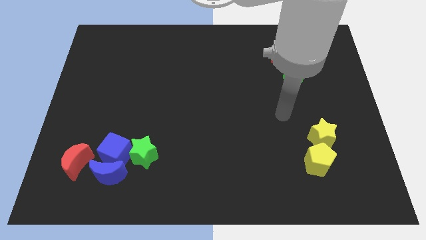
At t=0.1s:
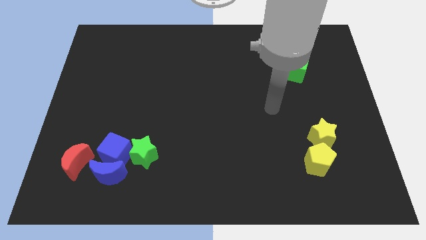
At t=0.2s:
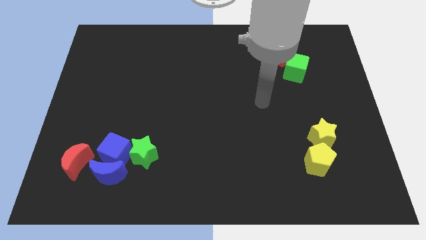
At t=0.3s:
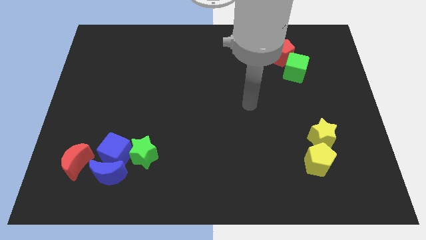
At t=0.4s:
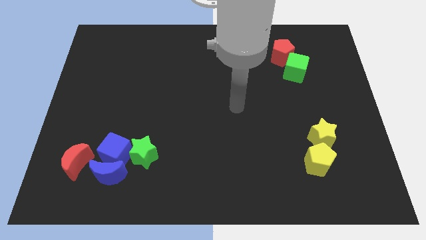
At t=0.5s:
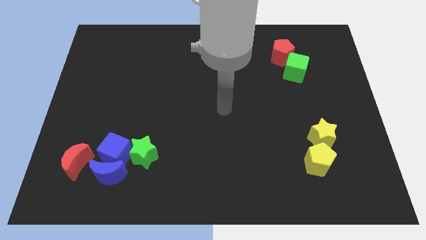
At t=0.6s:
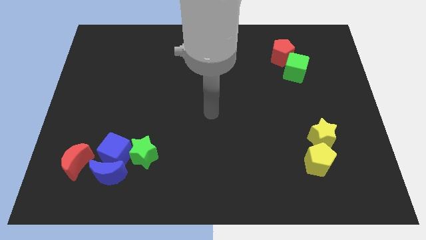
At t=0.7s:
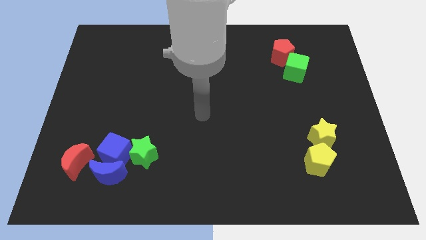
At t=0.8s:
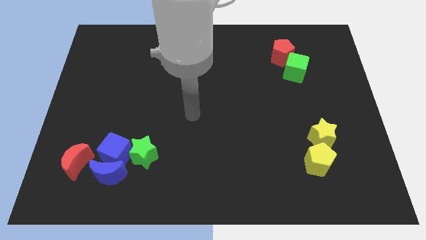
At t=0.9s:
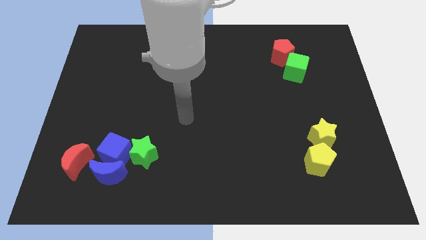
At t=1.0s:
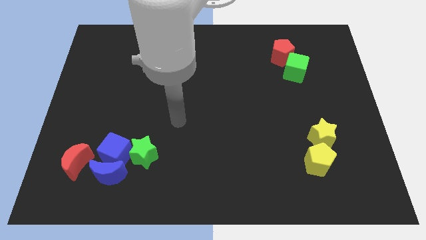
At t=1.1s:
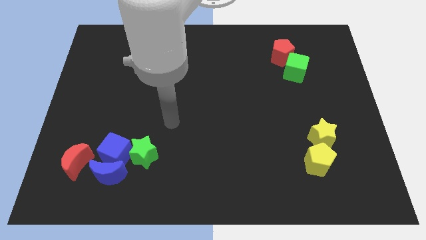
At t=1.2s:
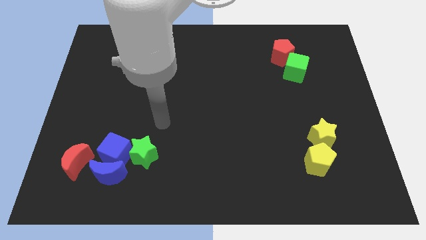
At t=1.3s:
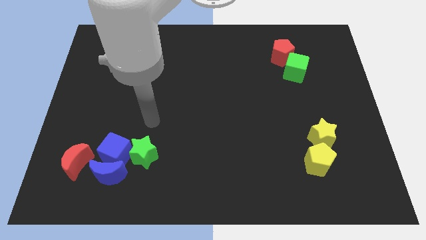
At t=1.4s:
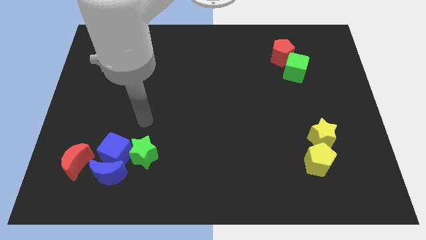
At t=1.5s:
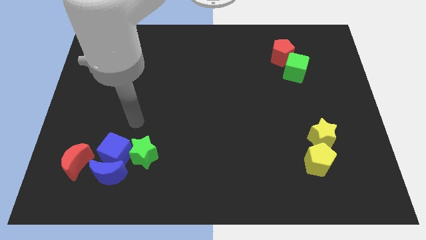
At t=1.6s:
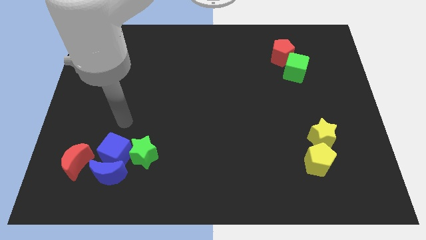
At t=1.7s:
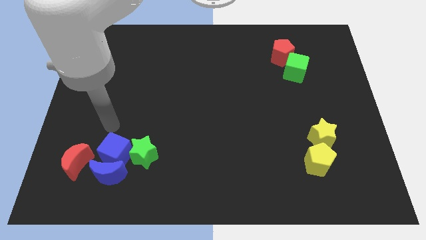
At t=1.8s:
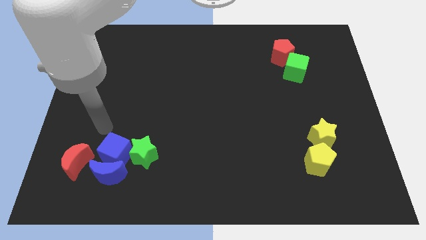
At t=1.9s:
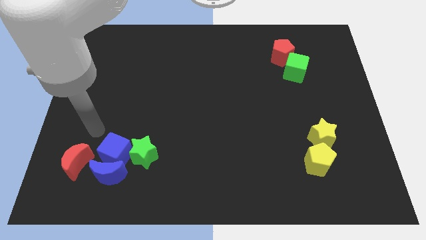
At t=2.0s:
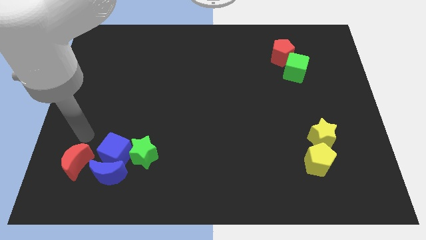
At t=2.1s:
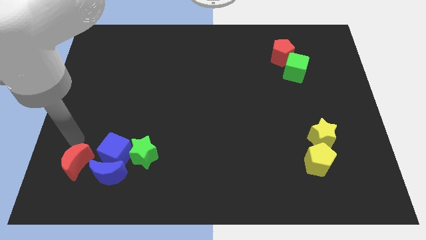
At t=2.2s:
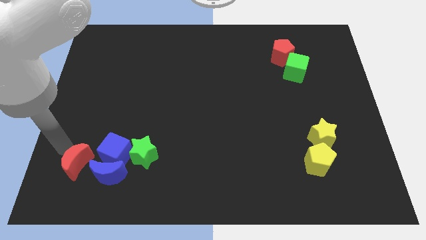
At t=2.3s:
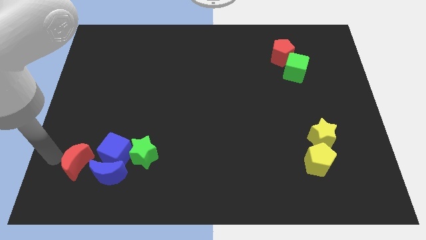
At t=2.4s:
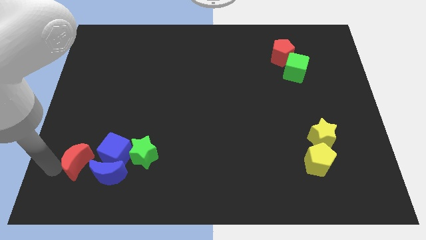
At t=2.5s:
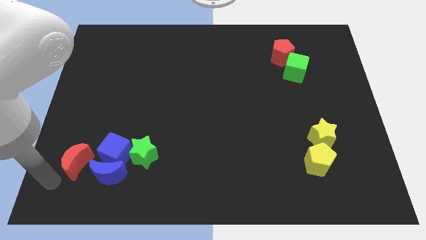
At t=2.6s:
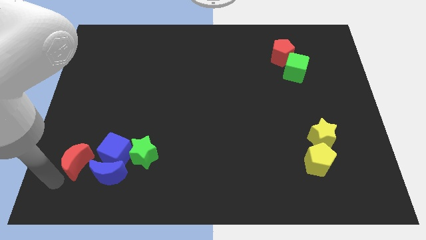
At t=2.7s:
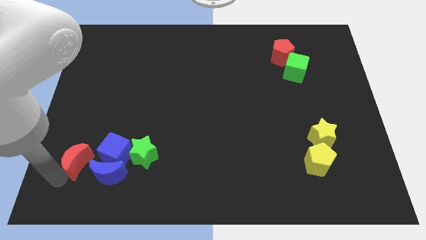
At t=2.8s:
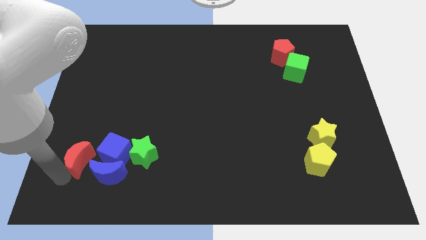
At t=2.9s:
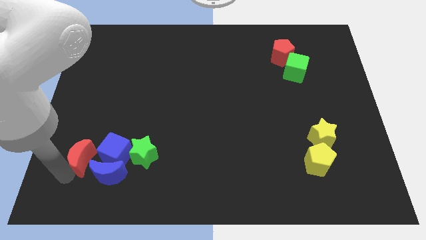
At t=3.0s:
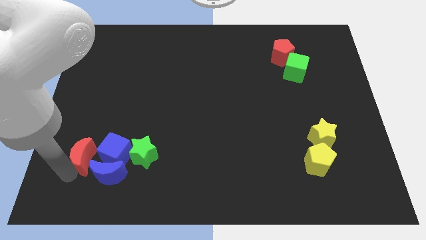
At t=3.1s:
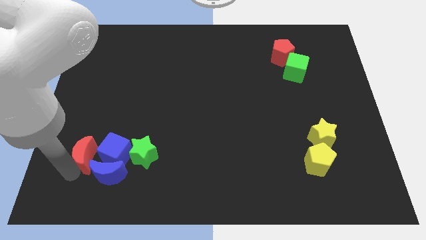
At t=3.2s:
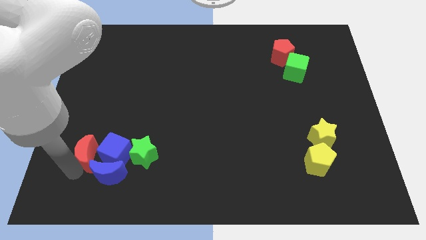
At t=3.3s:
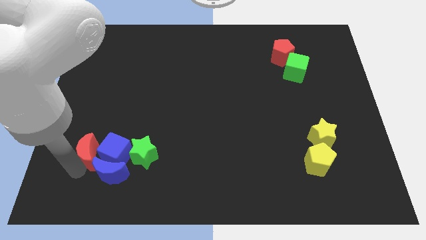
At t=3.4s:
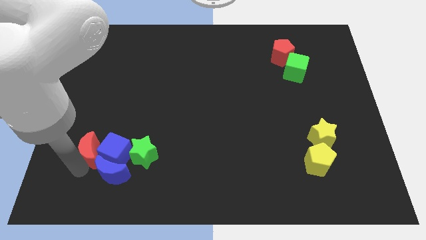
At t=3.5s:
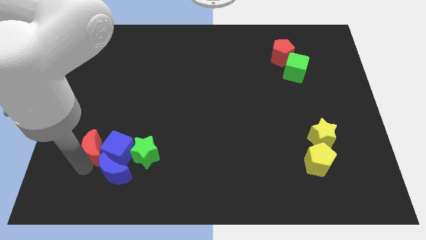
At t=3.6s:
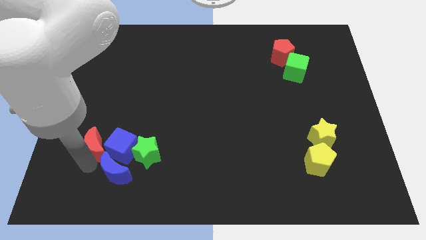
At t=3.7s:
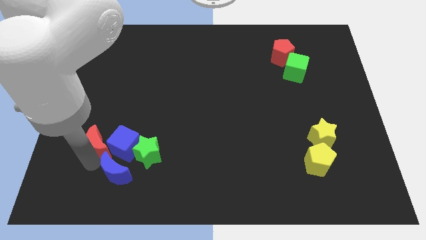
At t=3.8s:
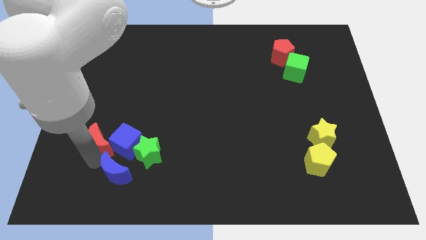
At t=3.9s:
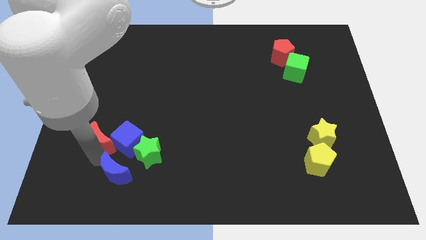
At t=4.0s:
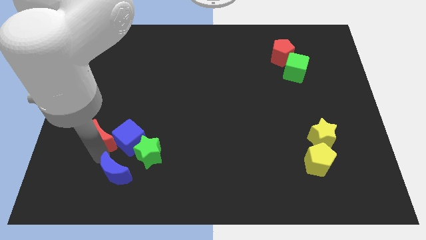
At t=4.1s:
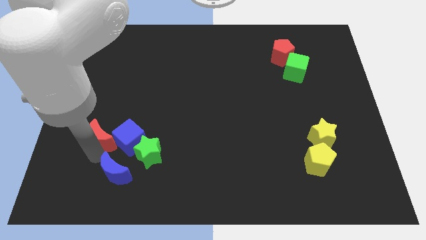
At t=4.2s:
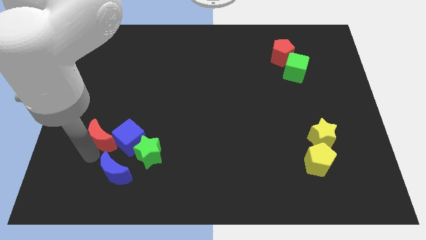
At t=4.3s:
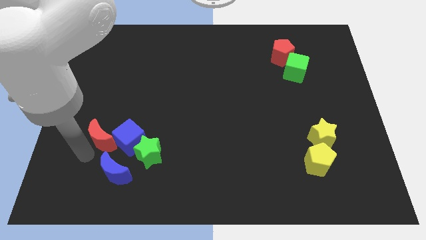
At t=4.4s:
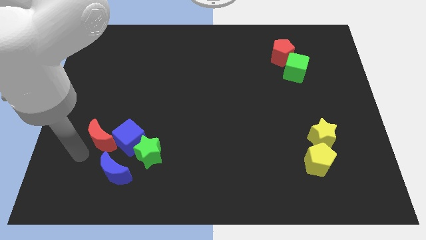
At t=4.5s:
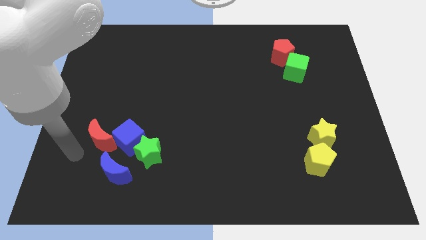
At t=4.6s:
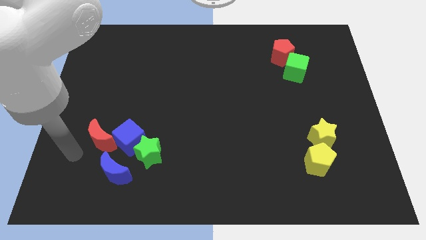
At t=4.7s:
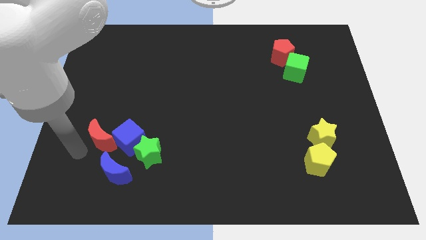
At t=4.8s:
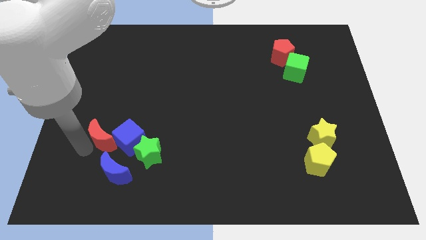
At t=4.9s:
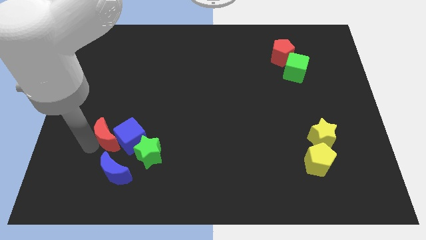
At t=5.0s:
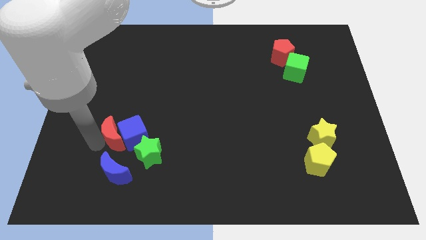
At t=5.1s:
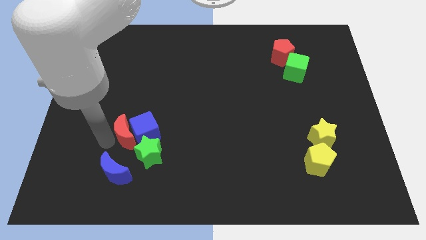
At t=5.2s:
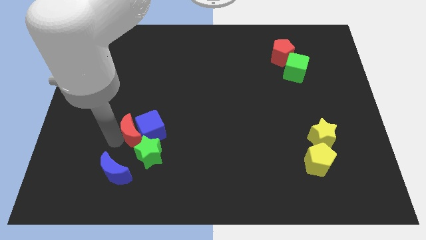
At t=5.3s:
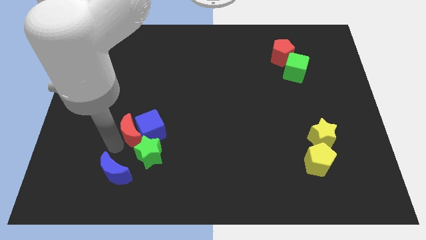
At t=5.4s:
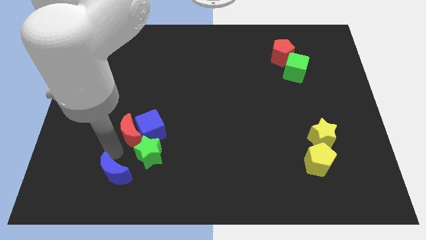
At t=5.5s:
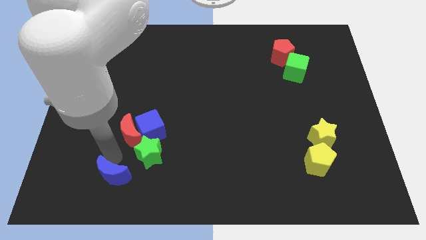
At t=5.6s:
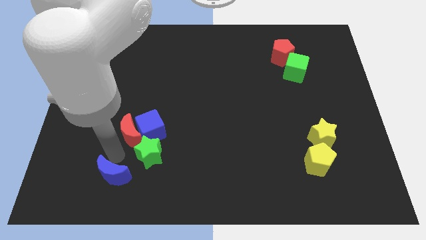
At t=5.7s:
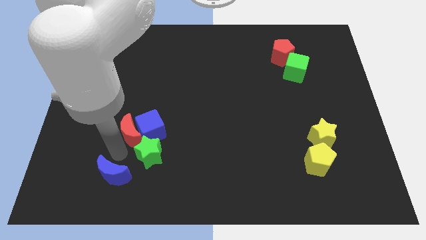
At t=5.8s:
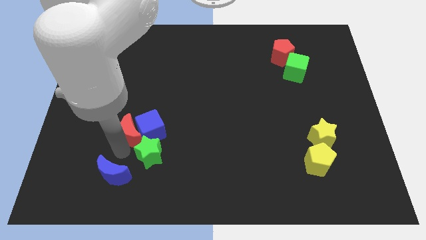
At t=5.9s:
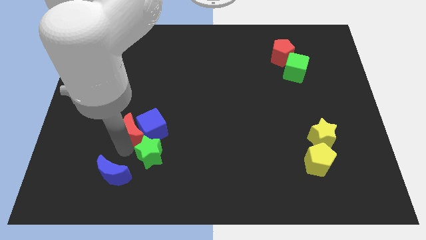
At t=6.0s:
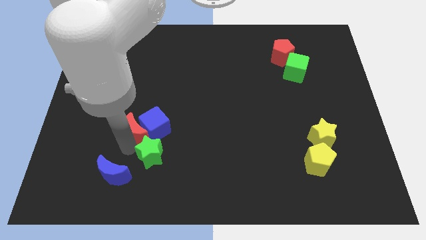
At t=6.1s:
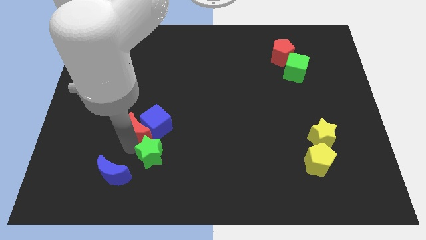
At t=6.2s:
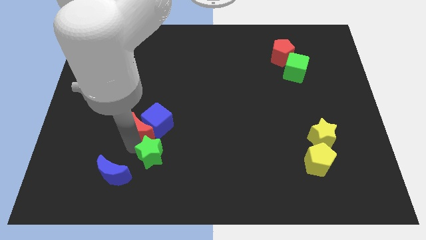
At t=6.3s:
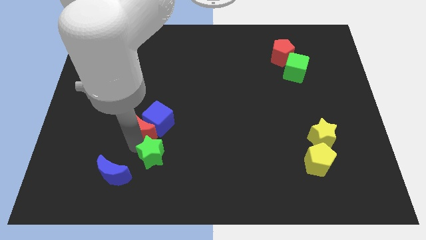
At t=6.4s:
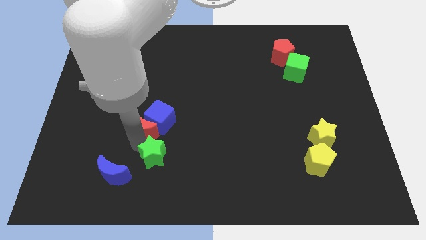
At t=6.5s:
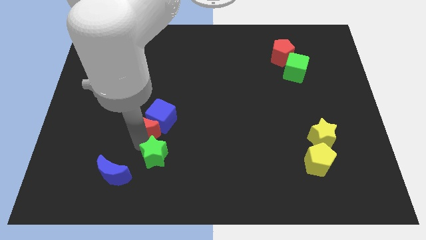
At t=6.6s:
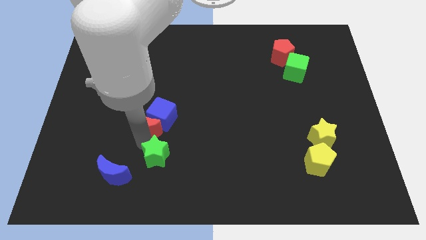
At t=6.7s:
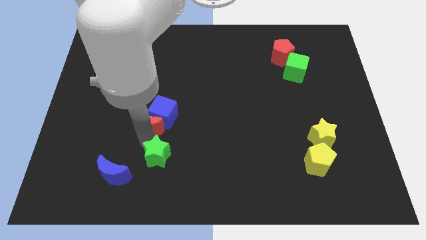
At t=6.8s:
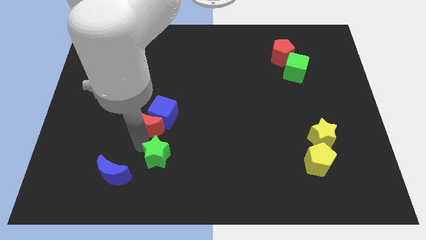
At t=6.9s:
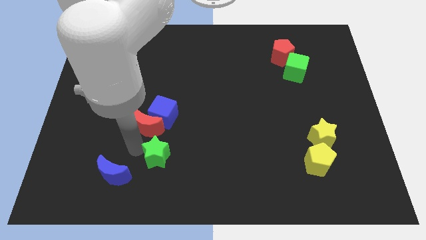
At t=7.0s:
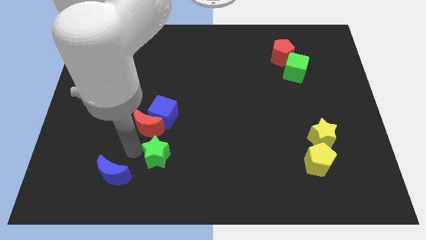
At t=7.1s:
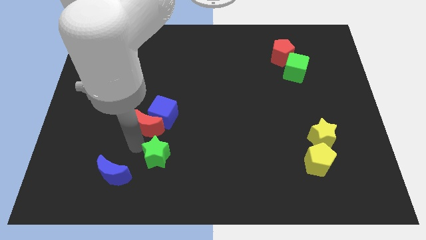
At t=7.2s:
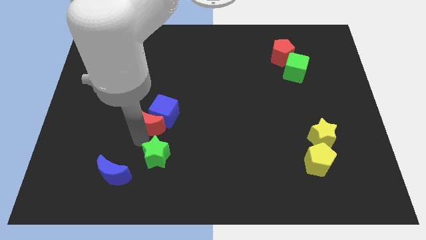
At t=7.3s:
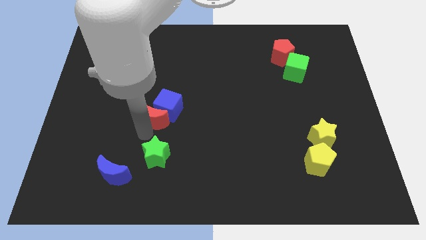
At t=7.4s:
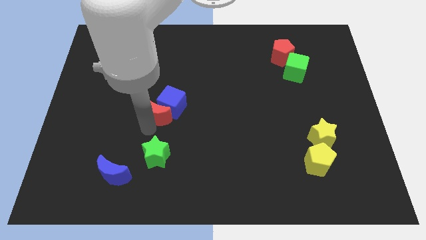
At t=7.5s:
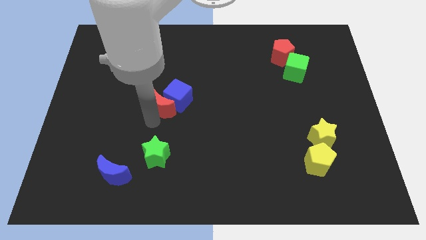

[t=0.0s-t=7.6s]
push the red moon upwards and then to the right

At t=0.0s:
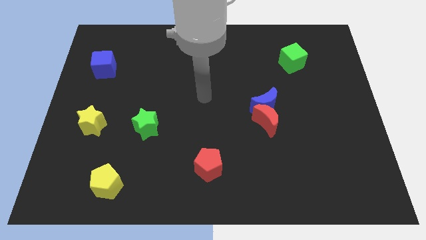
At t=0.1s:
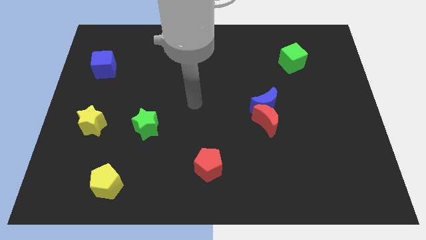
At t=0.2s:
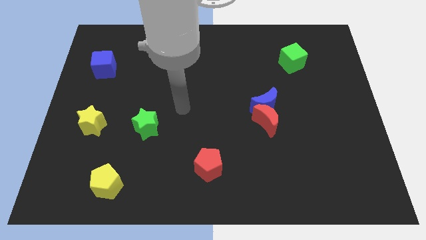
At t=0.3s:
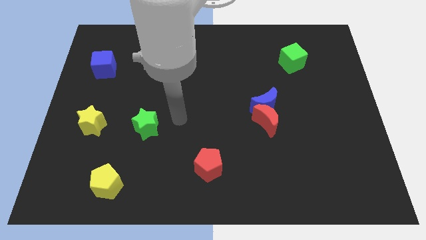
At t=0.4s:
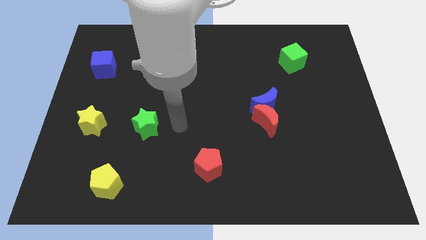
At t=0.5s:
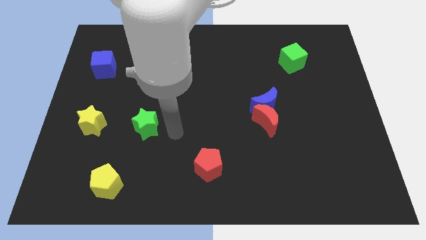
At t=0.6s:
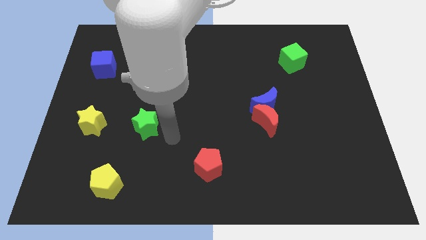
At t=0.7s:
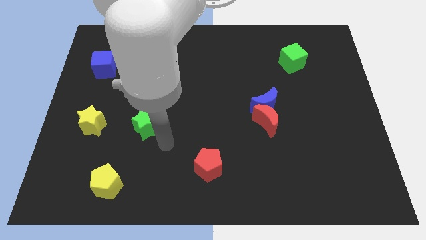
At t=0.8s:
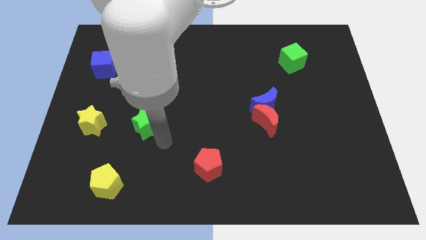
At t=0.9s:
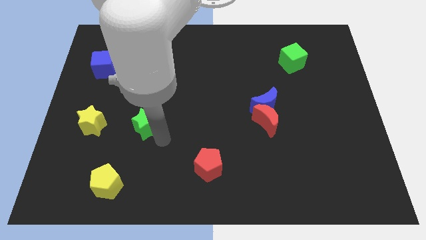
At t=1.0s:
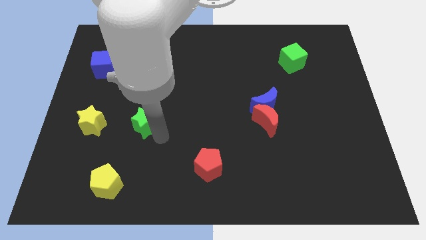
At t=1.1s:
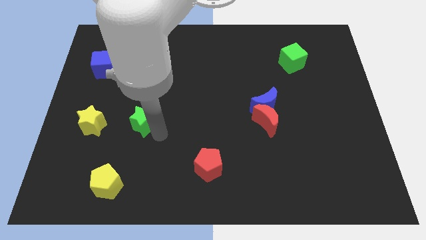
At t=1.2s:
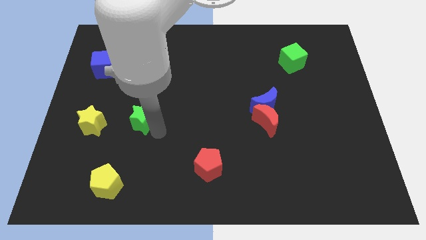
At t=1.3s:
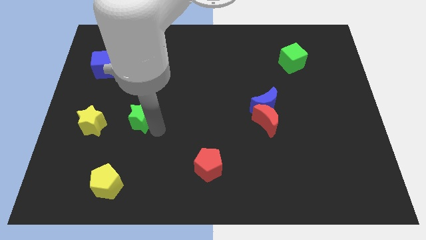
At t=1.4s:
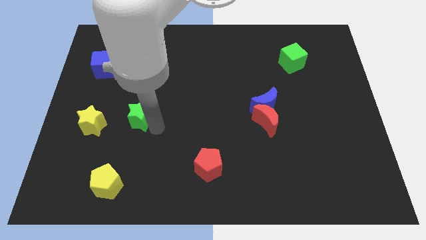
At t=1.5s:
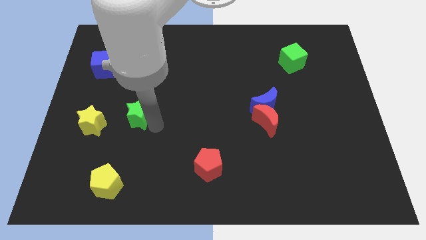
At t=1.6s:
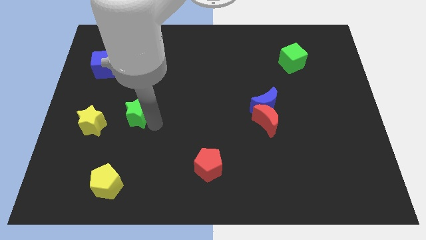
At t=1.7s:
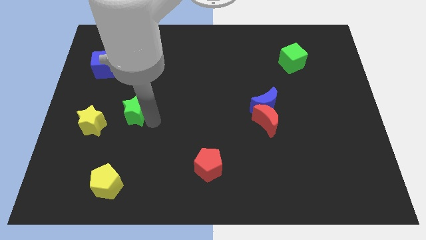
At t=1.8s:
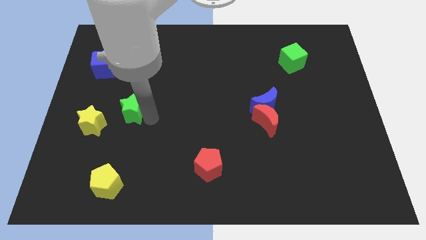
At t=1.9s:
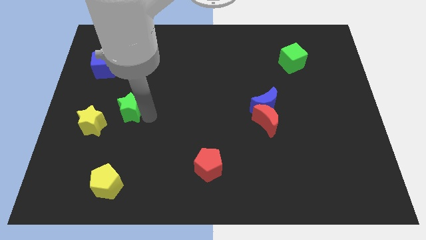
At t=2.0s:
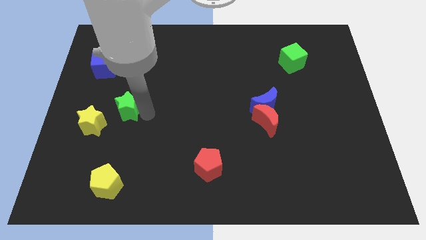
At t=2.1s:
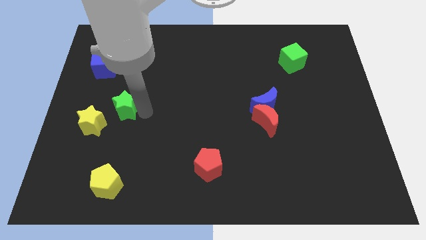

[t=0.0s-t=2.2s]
slide the green star somewhat upwards and then left
